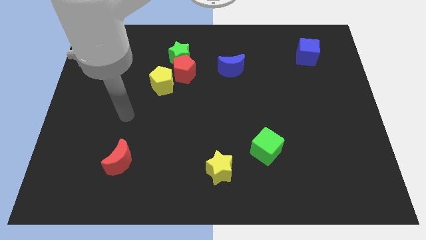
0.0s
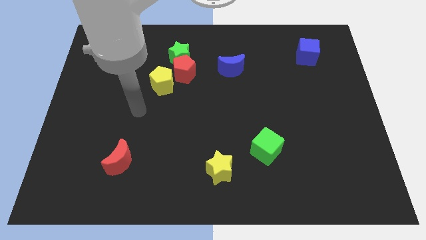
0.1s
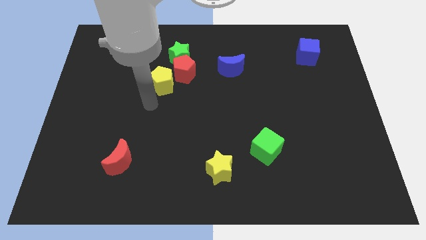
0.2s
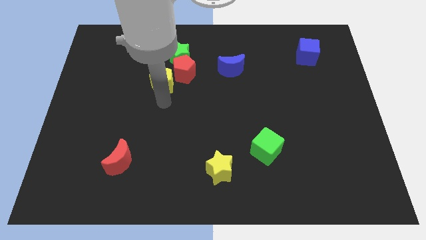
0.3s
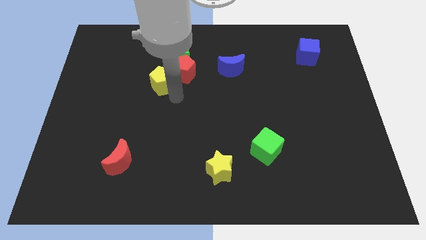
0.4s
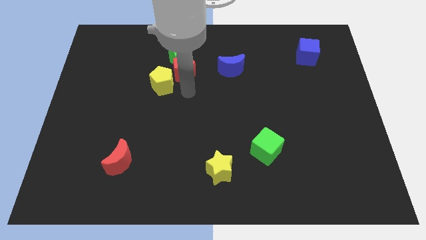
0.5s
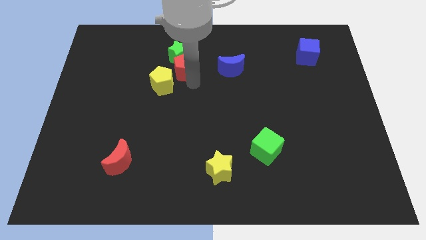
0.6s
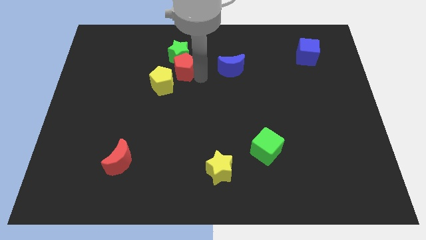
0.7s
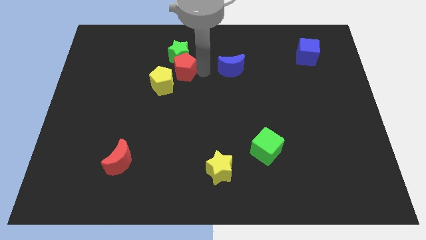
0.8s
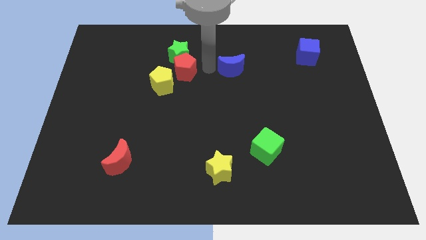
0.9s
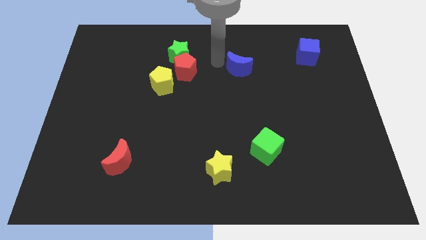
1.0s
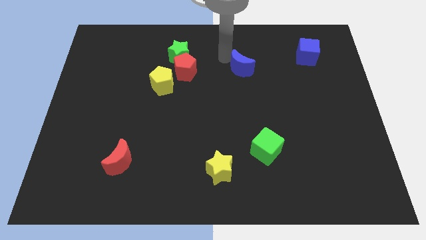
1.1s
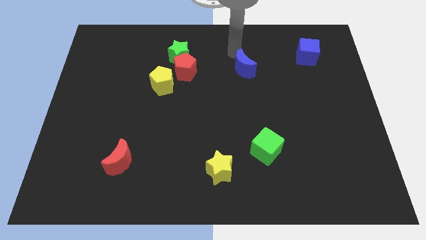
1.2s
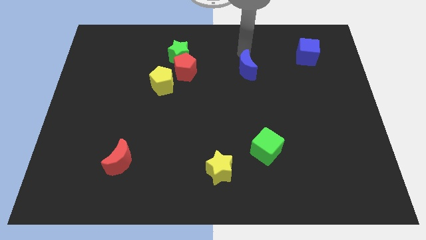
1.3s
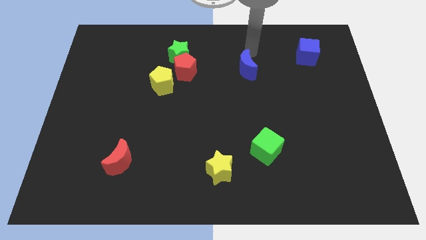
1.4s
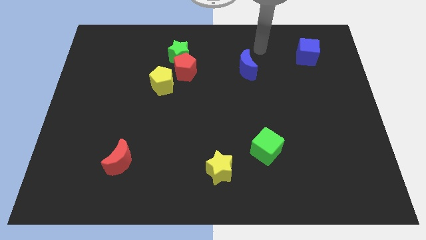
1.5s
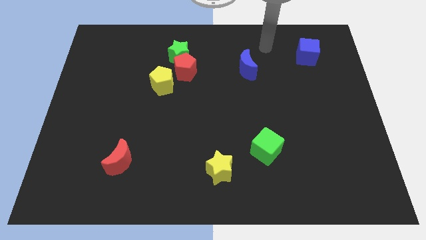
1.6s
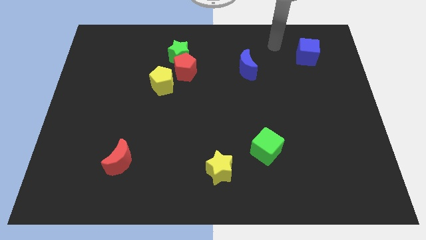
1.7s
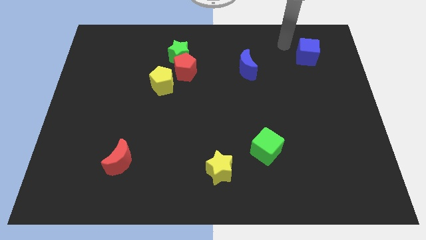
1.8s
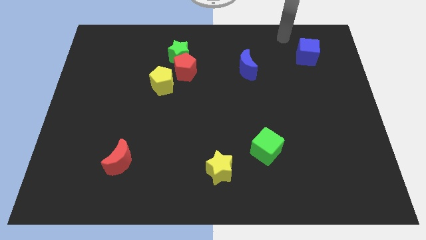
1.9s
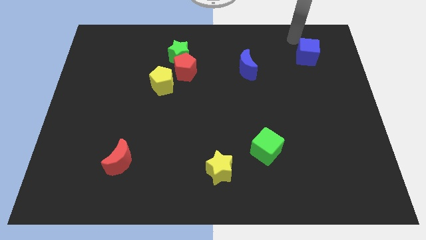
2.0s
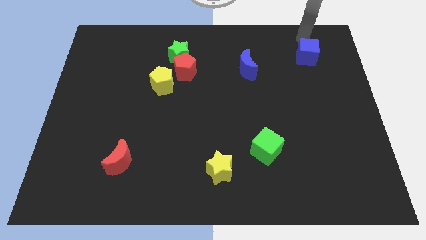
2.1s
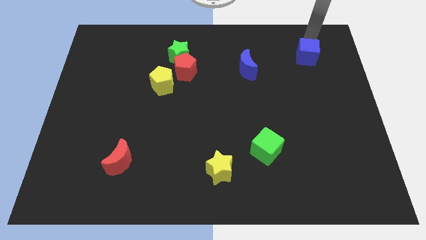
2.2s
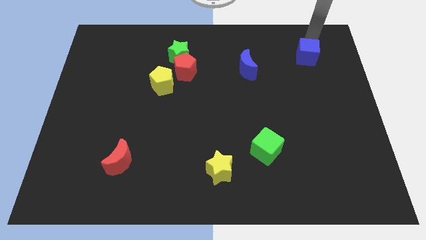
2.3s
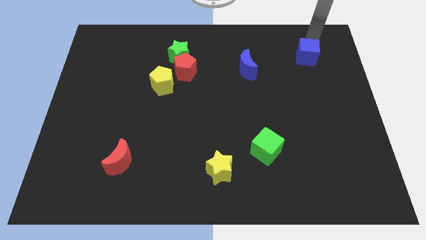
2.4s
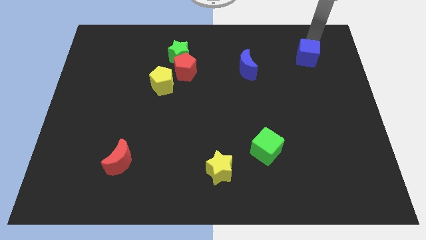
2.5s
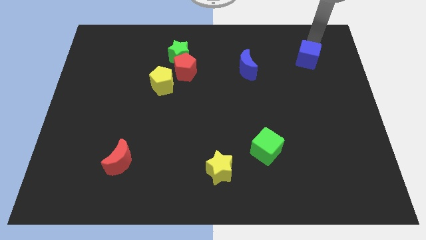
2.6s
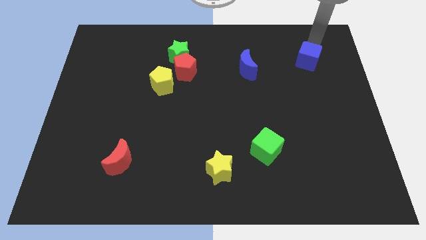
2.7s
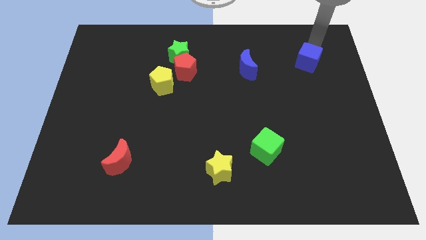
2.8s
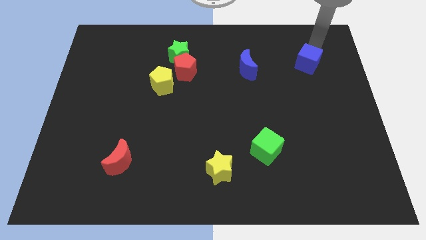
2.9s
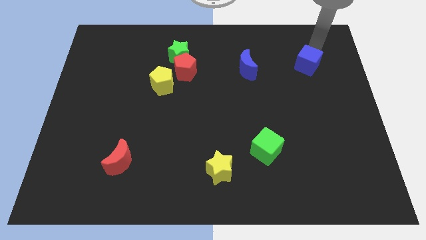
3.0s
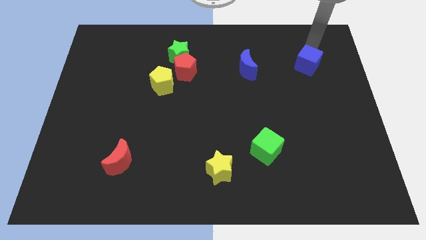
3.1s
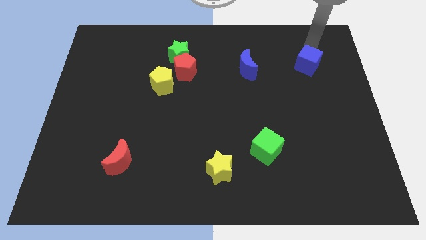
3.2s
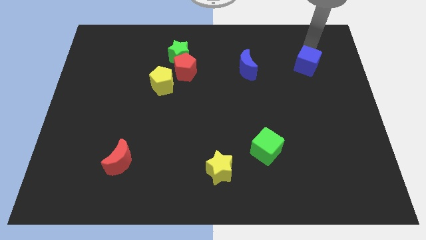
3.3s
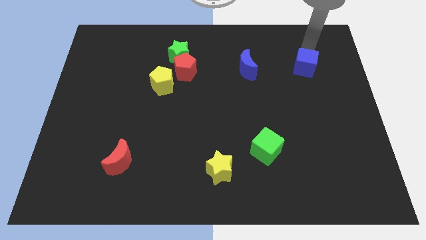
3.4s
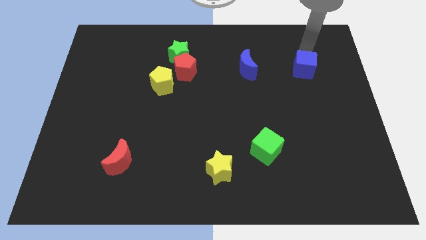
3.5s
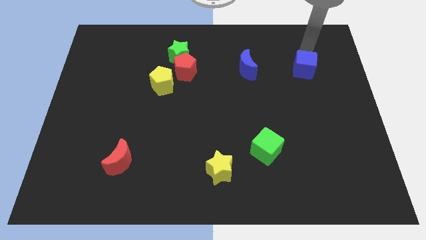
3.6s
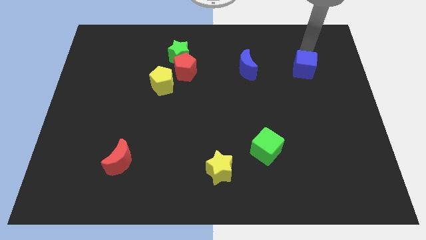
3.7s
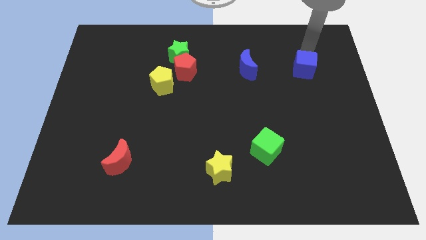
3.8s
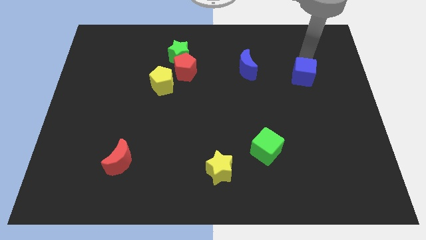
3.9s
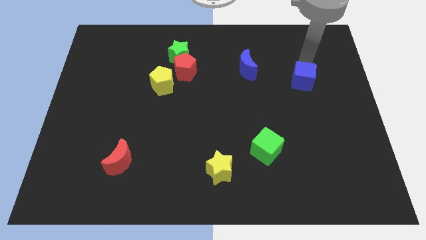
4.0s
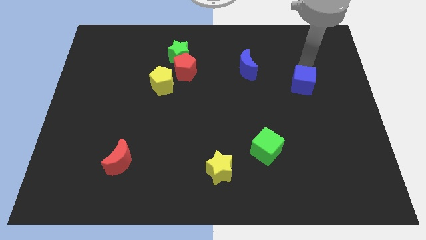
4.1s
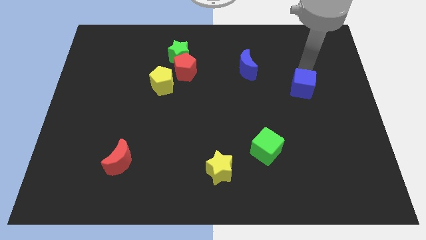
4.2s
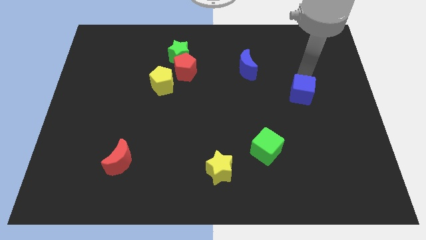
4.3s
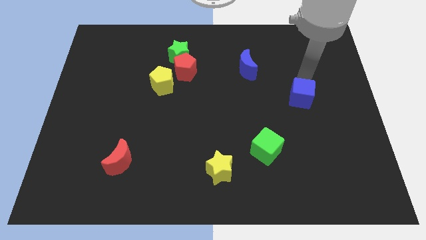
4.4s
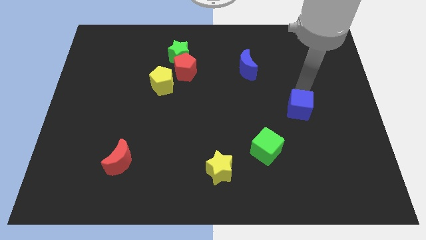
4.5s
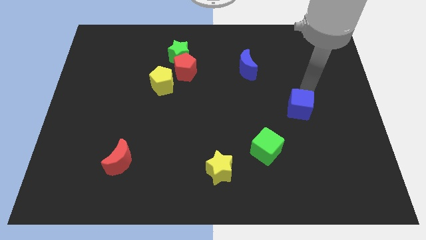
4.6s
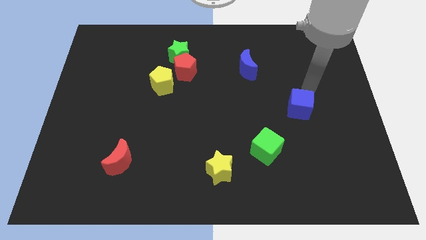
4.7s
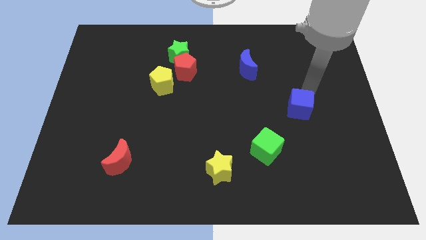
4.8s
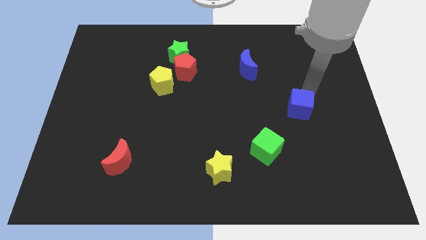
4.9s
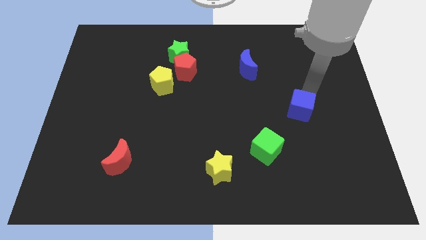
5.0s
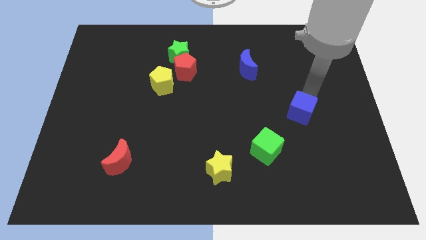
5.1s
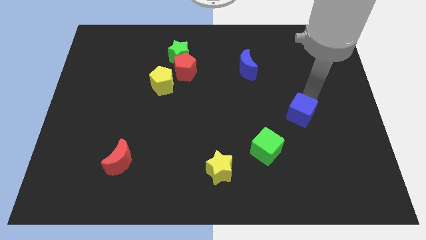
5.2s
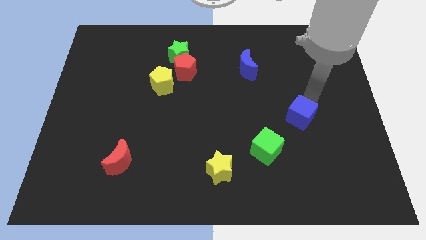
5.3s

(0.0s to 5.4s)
put the blue cube diagonally up and to the right of the green cube

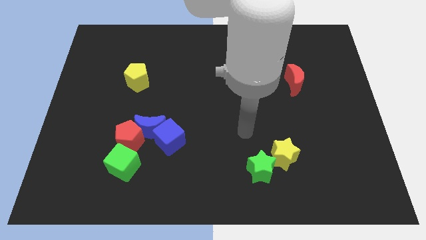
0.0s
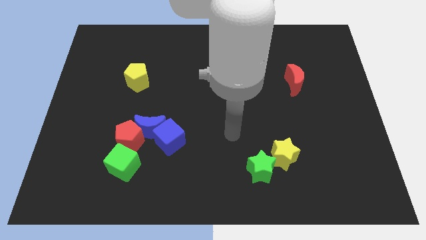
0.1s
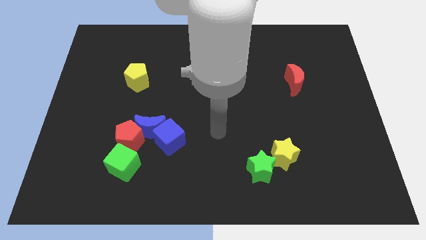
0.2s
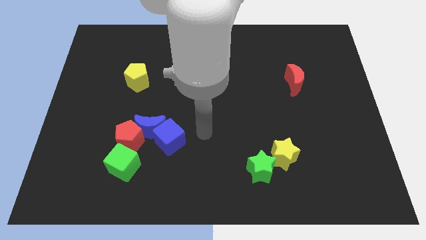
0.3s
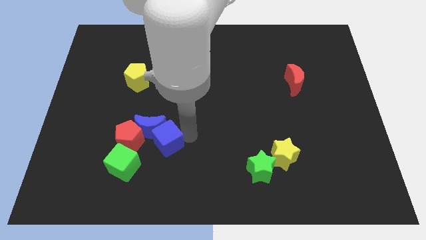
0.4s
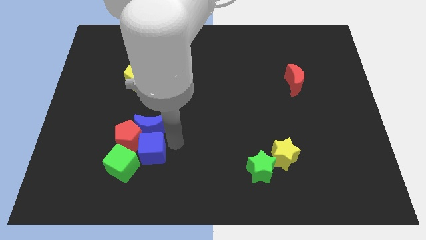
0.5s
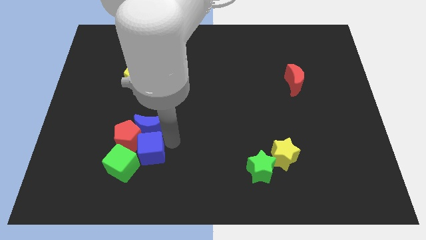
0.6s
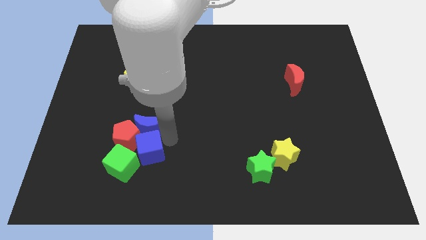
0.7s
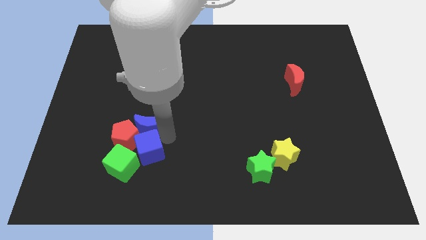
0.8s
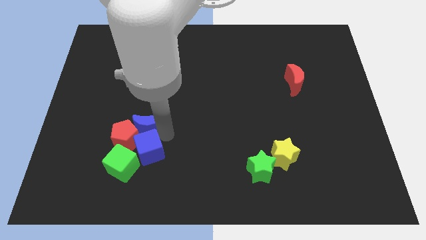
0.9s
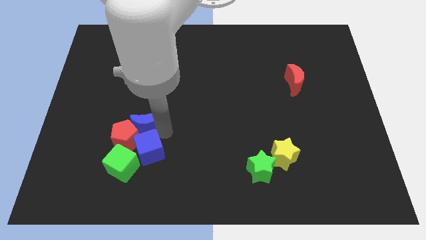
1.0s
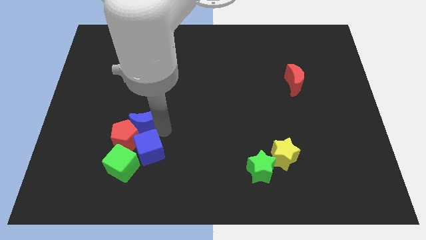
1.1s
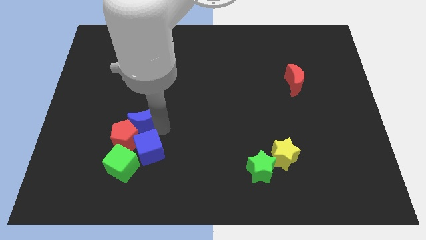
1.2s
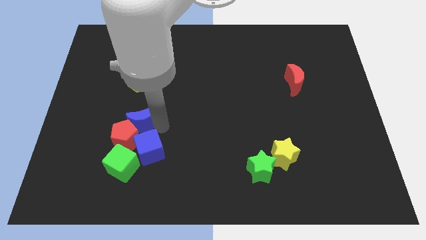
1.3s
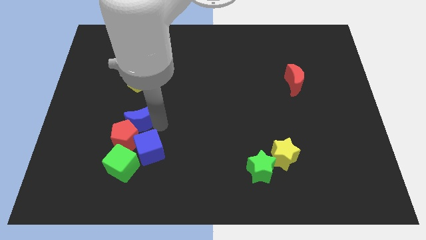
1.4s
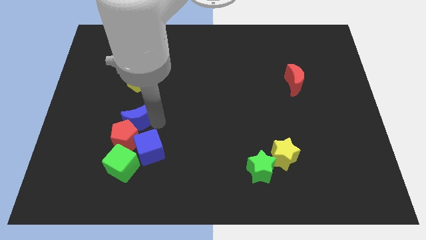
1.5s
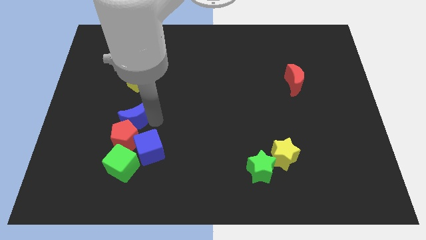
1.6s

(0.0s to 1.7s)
push the blue moon to the top left of the red pentagon
